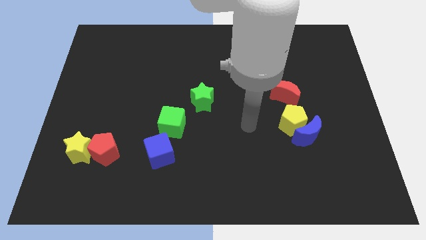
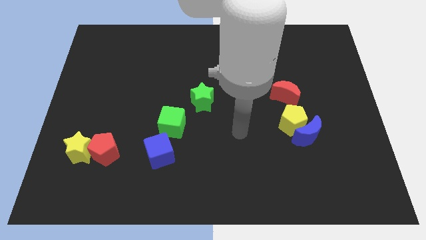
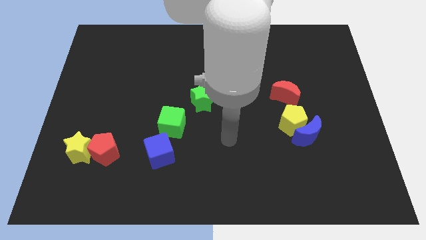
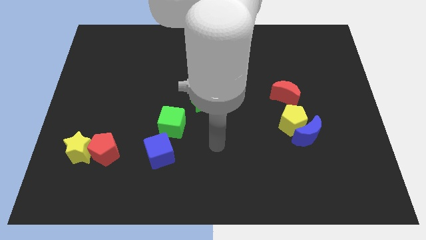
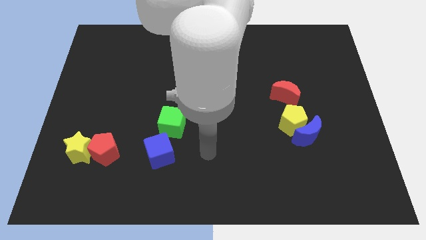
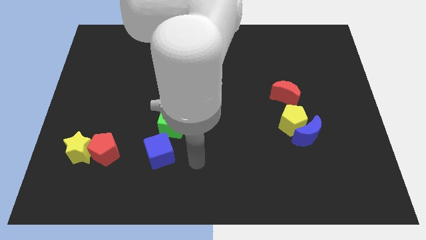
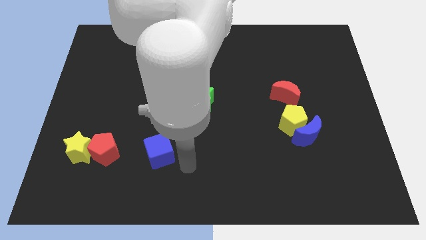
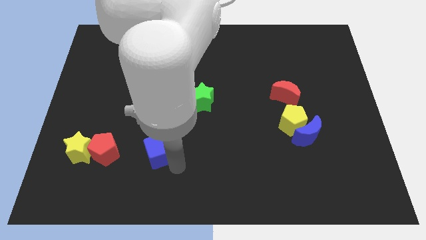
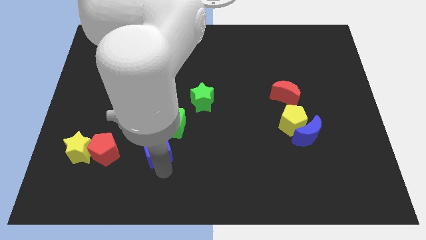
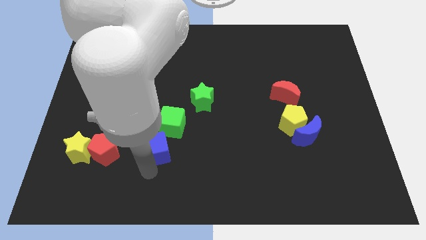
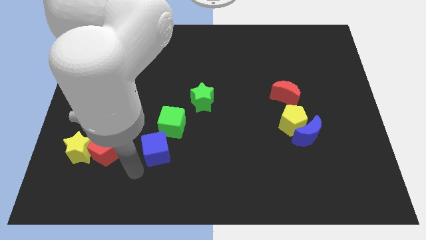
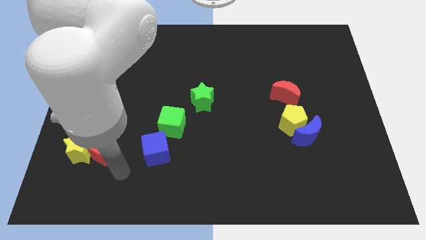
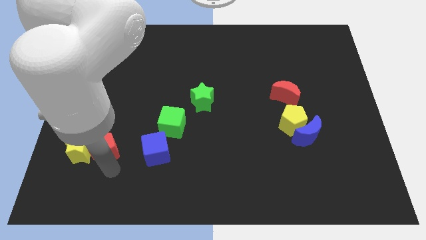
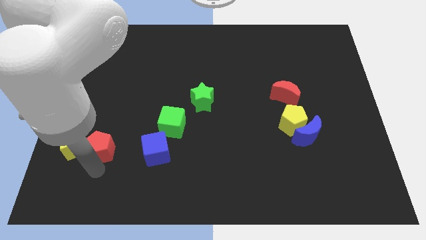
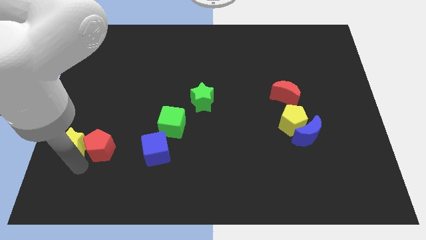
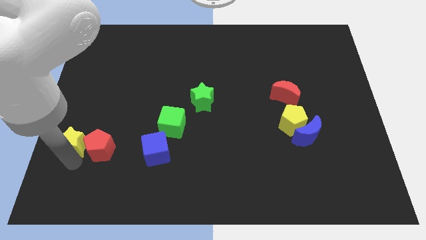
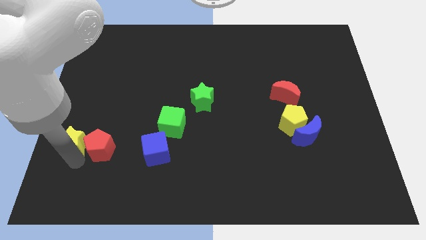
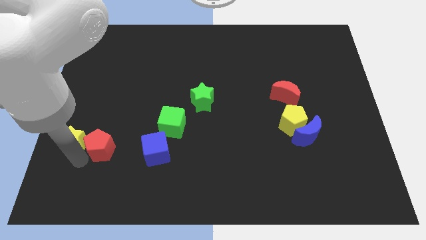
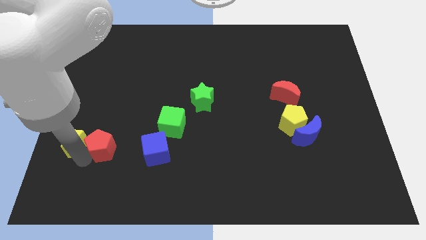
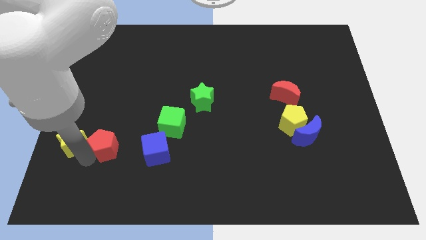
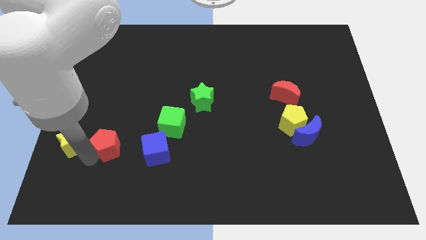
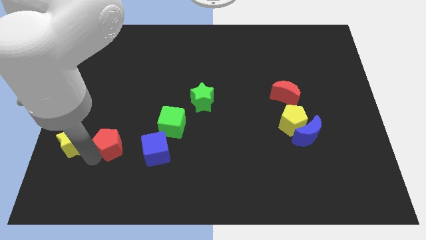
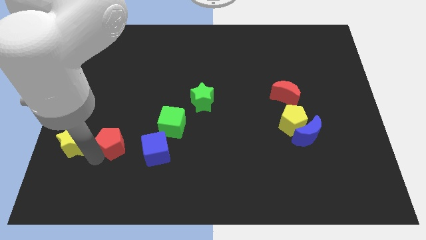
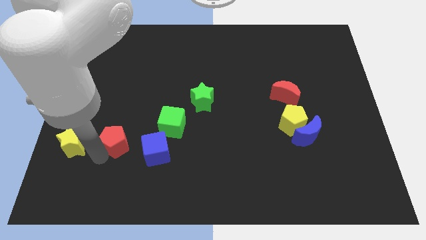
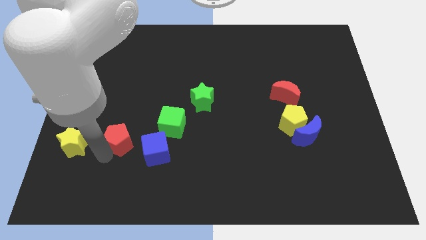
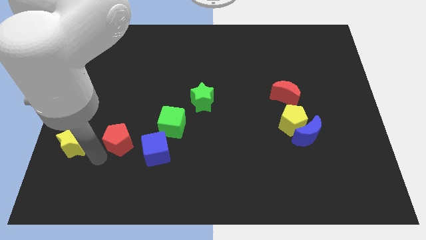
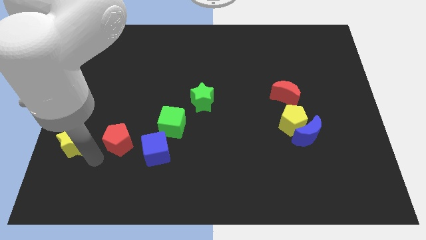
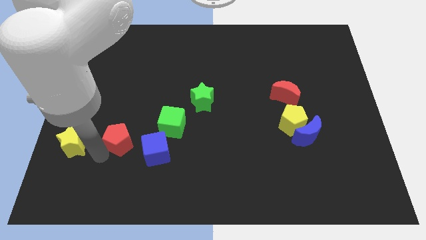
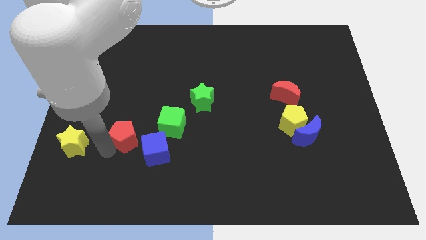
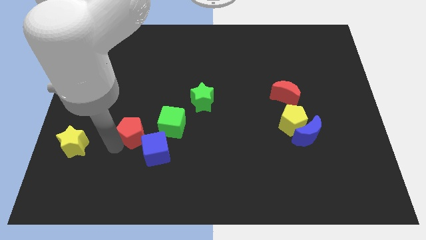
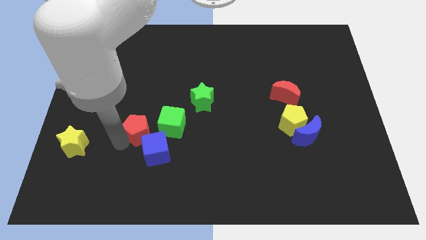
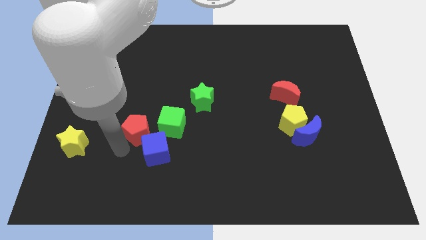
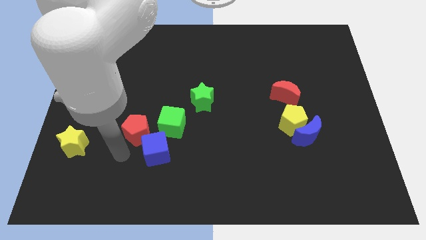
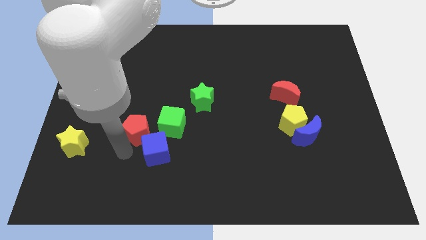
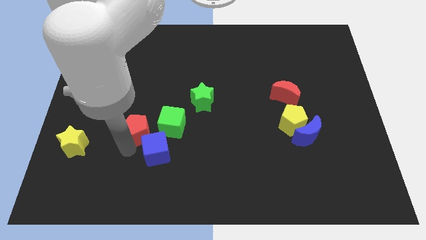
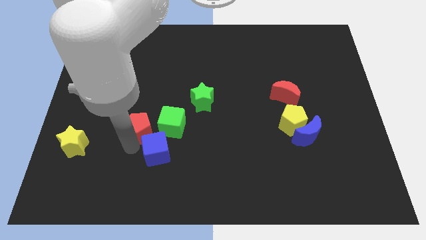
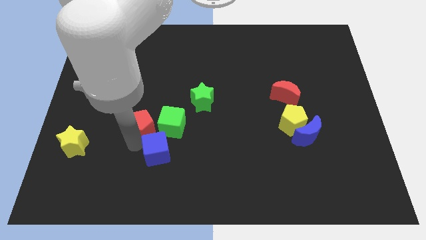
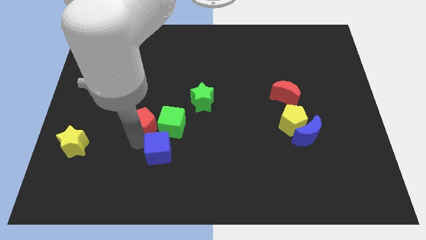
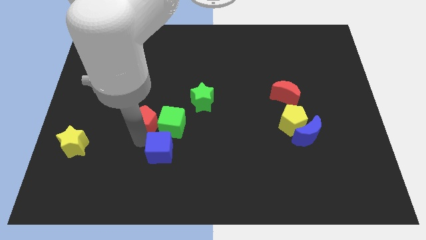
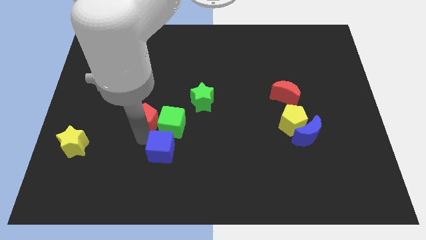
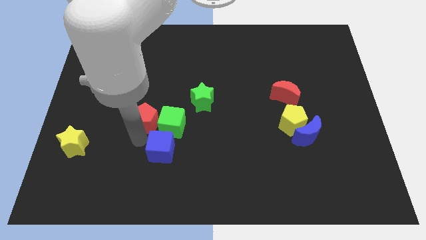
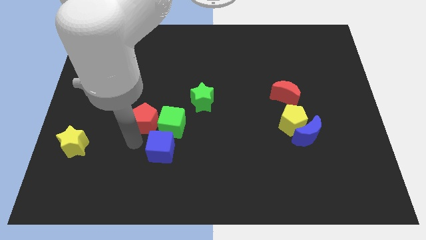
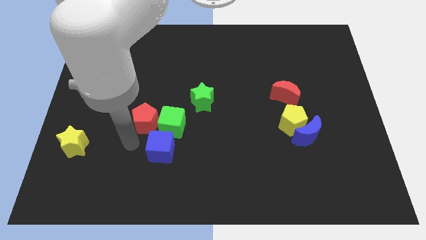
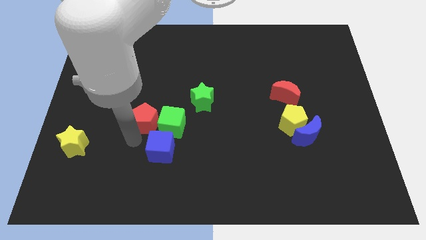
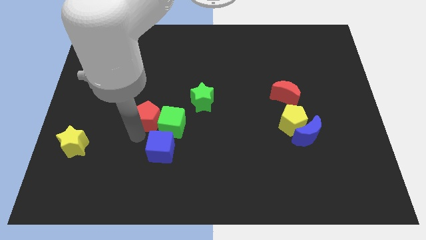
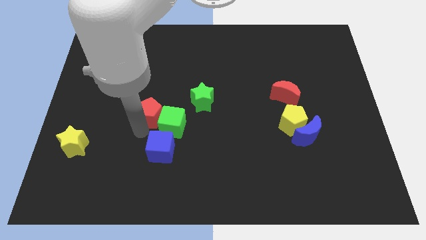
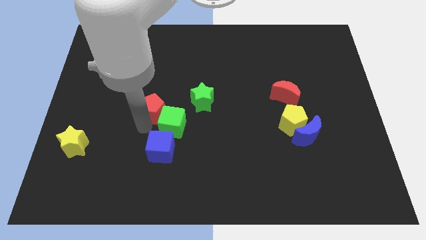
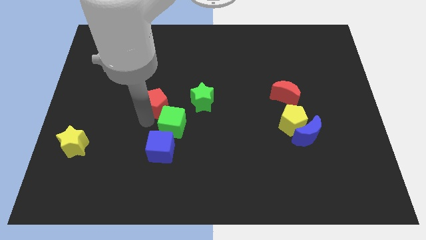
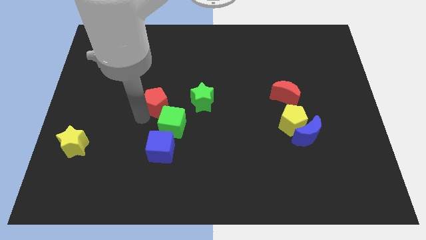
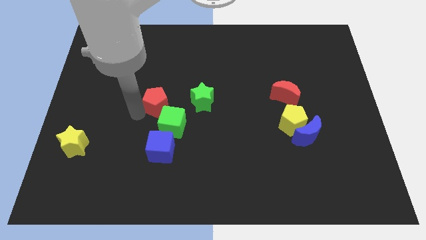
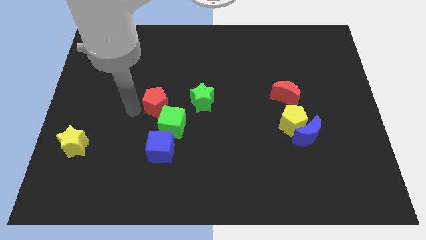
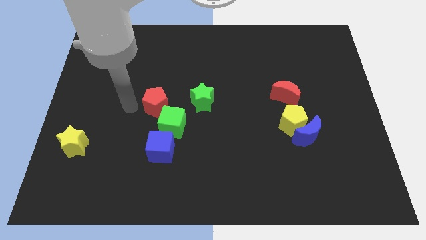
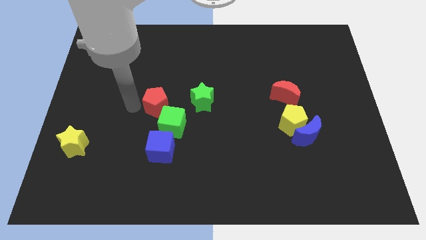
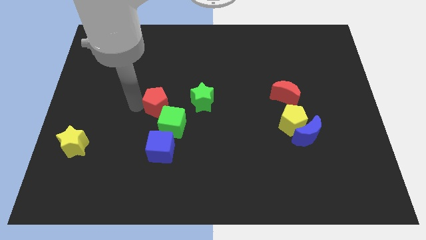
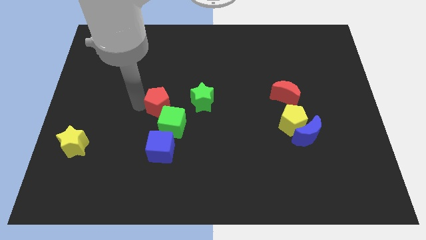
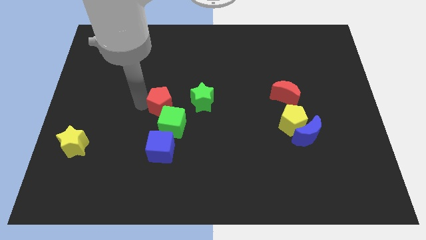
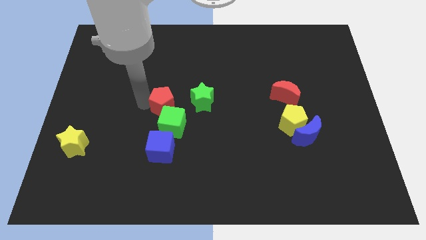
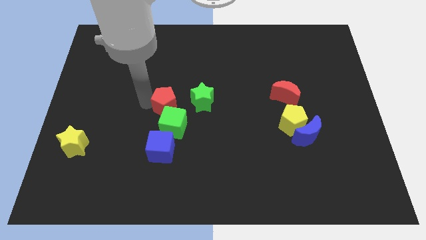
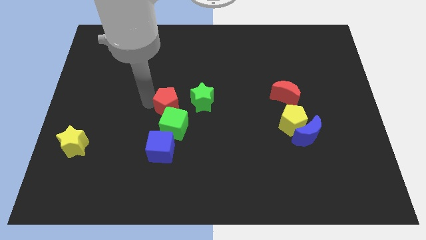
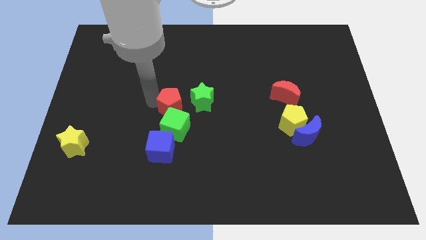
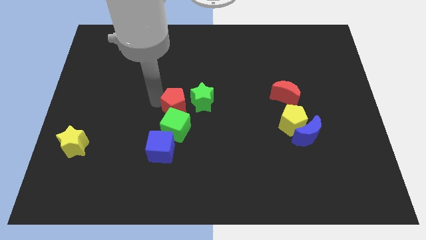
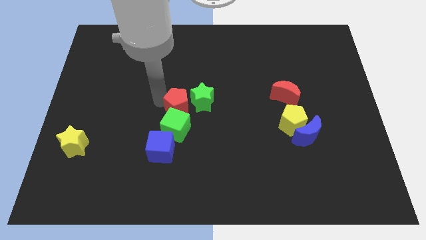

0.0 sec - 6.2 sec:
put the red pentagon to the green star

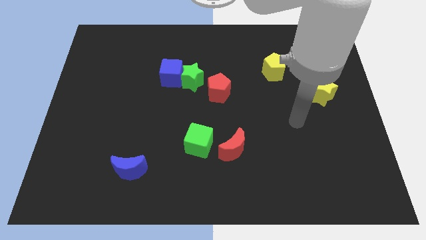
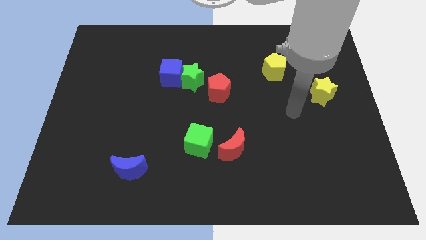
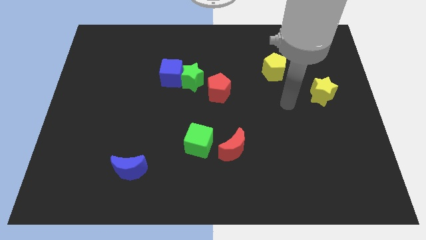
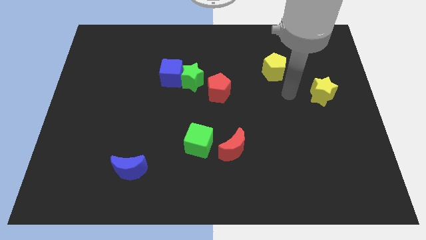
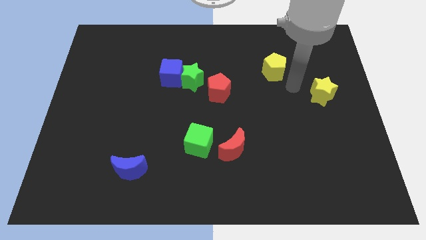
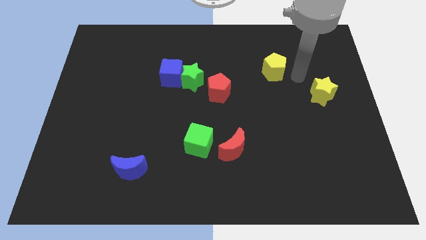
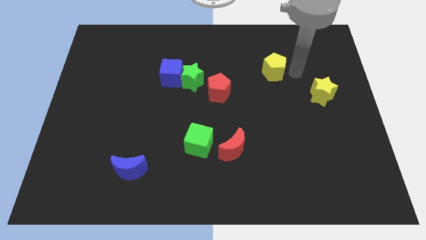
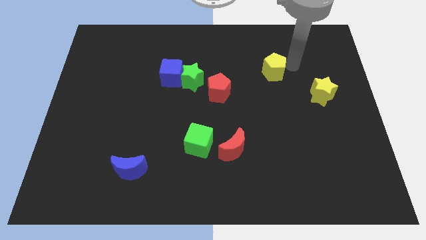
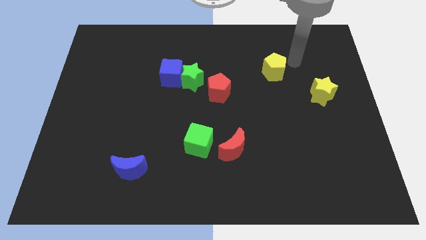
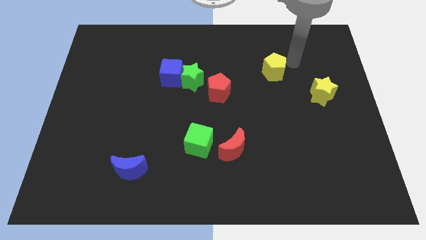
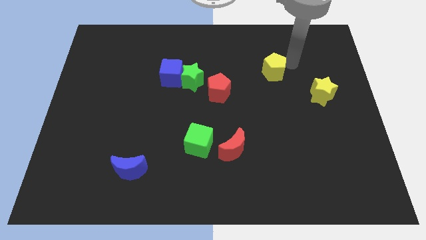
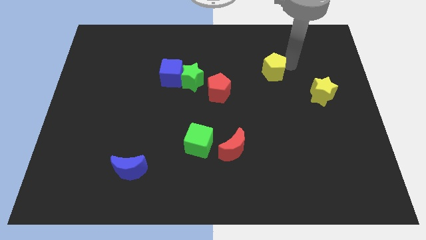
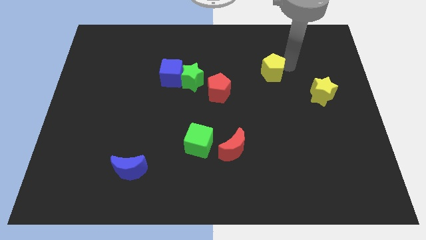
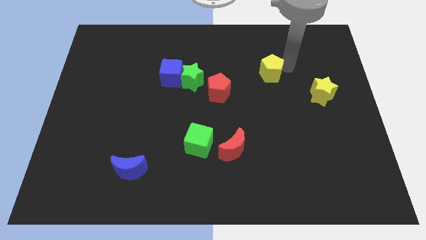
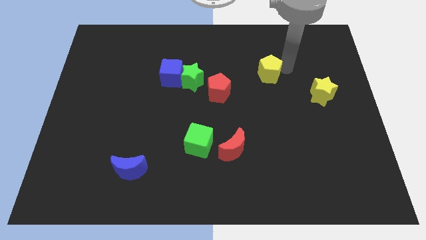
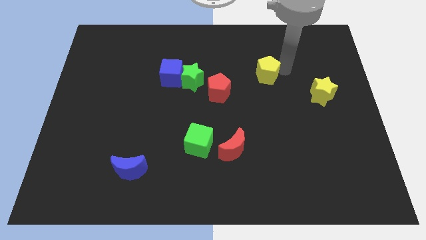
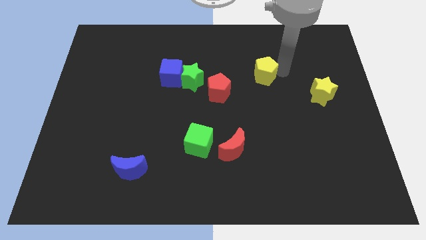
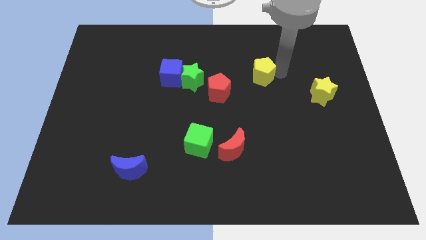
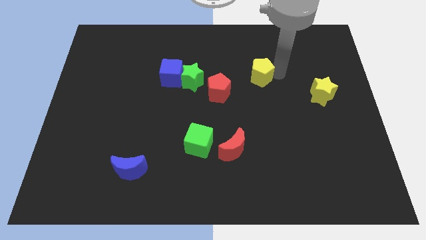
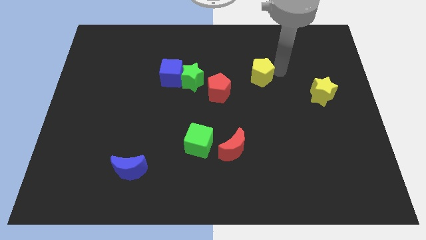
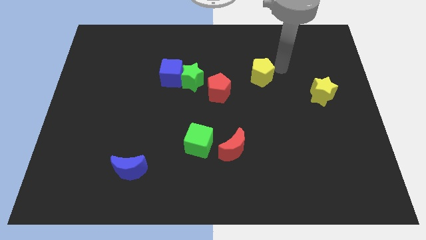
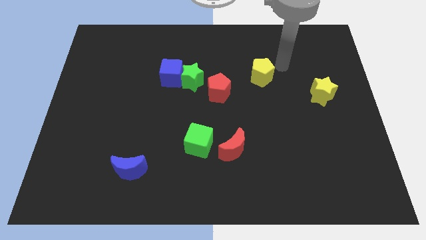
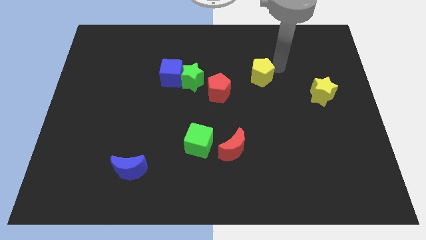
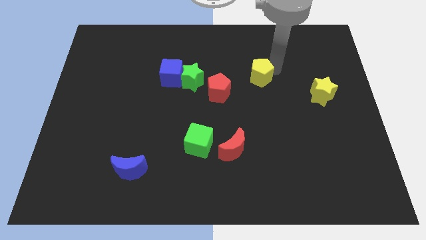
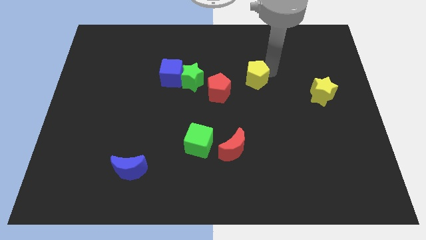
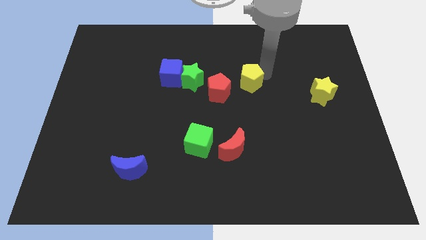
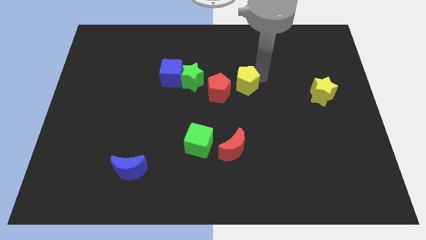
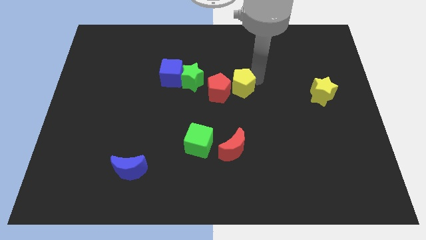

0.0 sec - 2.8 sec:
move the yellow pentagon next to the red pentagon
